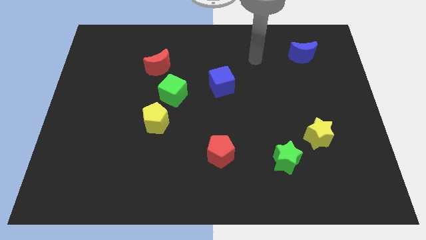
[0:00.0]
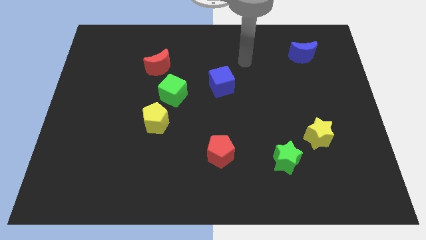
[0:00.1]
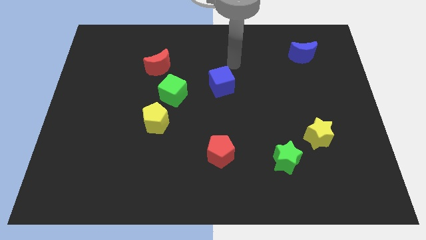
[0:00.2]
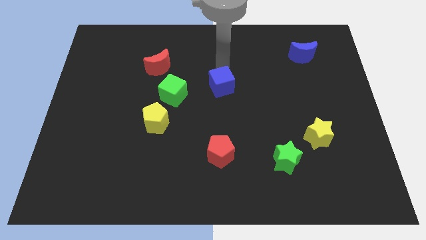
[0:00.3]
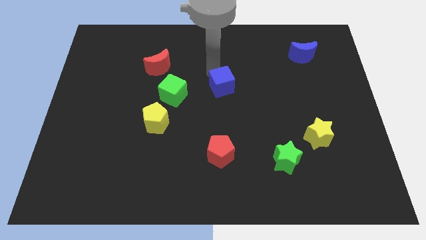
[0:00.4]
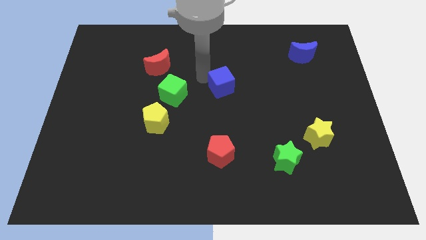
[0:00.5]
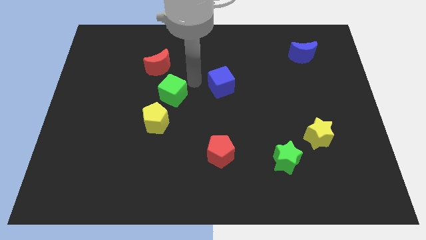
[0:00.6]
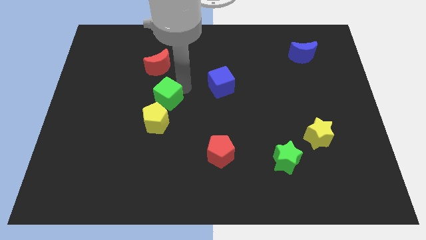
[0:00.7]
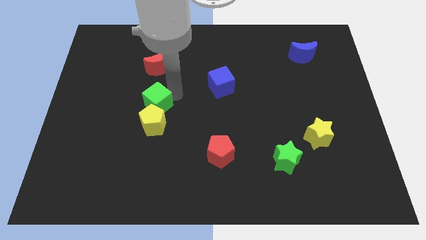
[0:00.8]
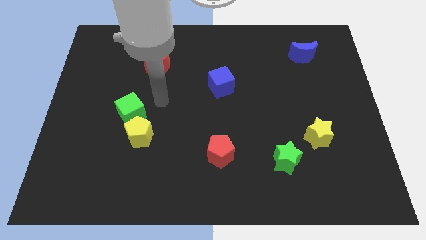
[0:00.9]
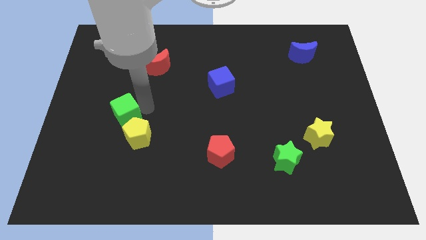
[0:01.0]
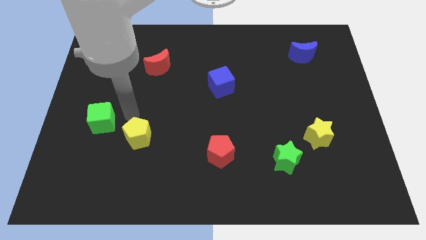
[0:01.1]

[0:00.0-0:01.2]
move the yellow pentagon away from the green cube

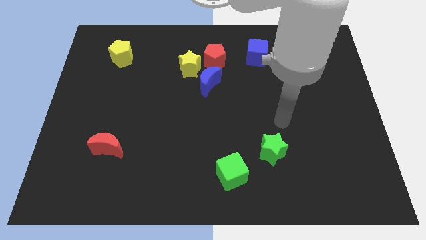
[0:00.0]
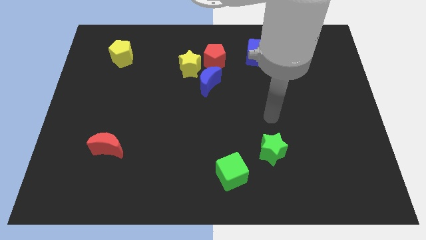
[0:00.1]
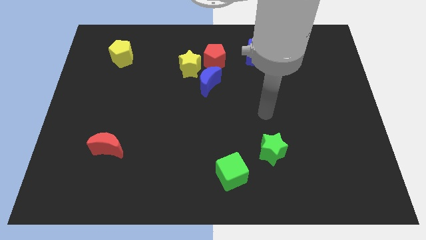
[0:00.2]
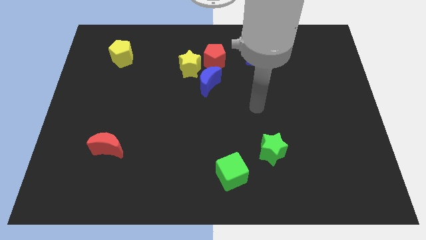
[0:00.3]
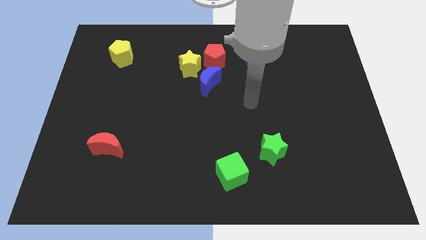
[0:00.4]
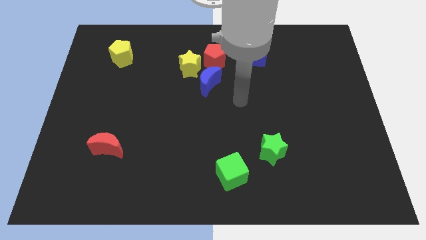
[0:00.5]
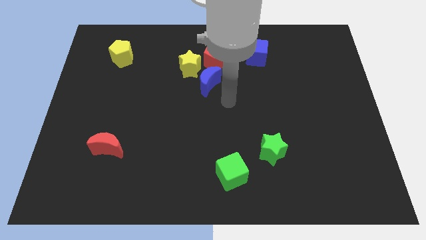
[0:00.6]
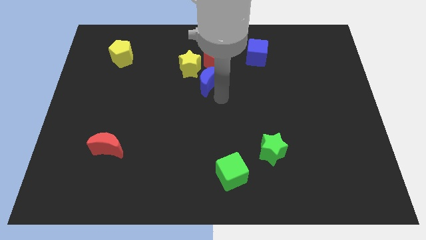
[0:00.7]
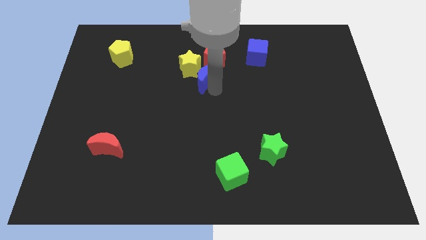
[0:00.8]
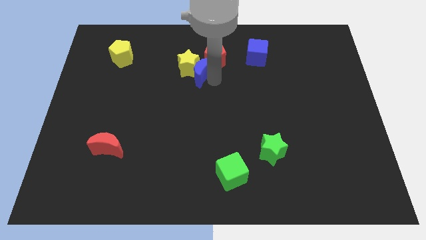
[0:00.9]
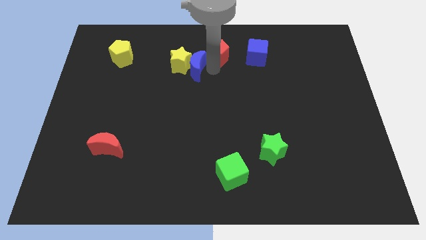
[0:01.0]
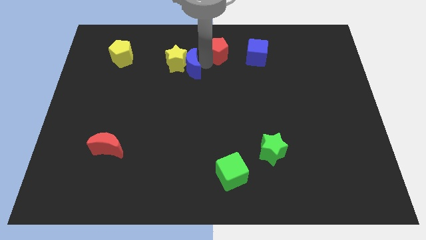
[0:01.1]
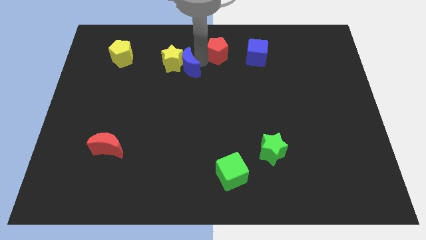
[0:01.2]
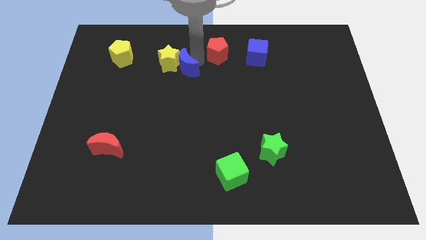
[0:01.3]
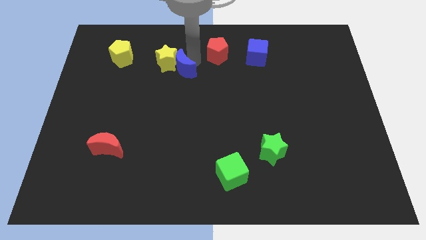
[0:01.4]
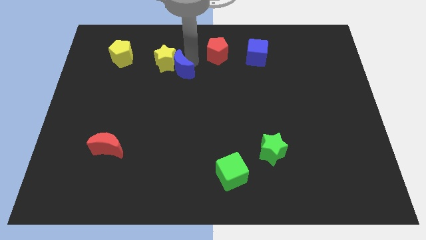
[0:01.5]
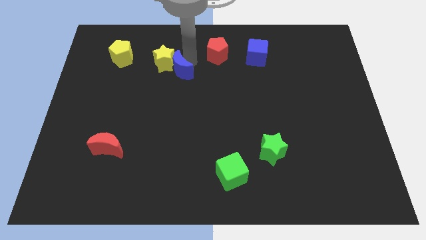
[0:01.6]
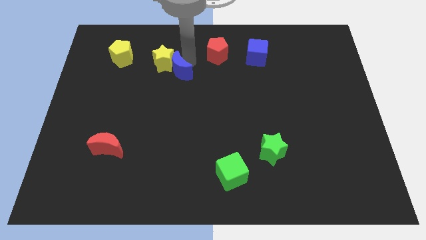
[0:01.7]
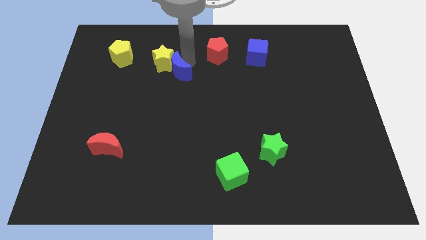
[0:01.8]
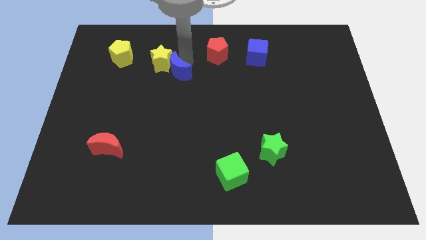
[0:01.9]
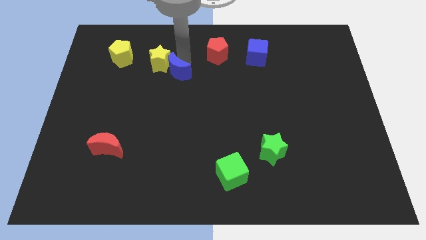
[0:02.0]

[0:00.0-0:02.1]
pull the yellow star apart from the red pentagon and blue moon

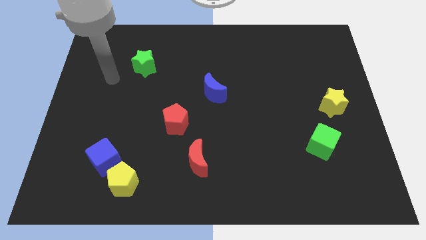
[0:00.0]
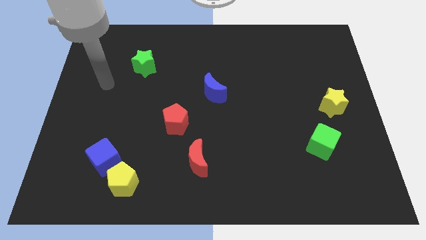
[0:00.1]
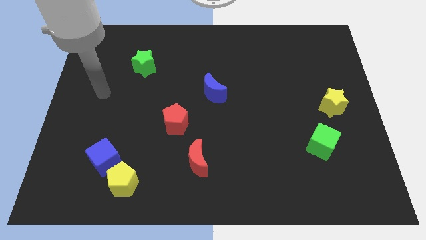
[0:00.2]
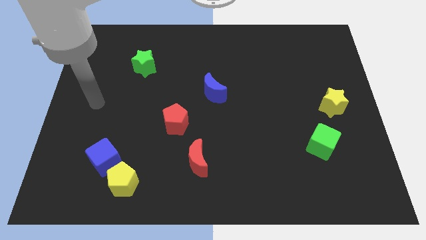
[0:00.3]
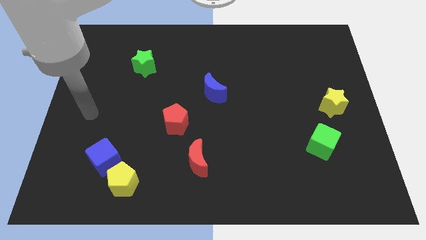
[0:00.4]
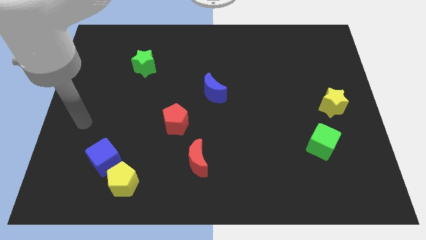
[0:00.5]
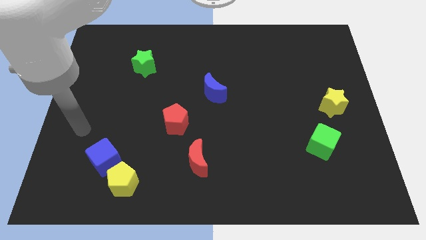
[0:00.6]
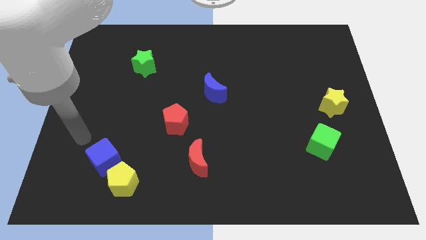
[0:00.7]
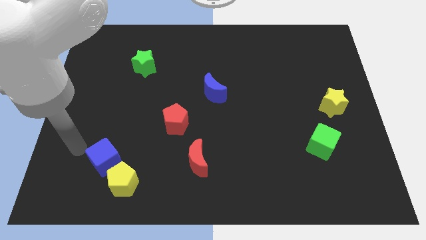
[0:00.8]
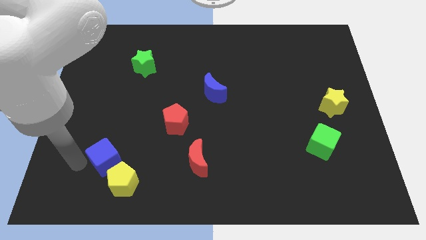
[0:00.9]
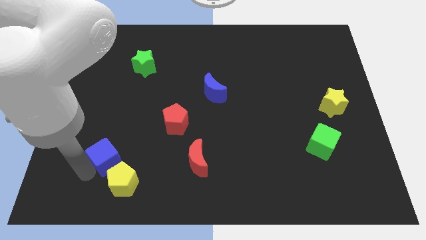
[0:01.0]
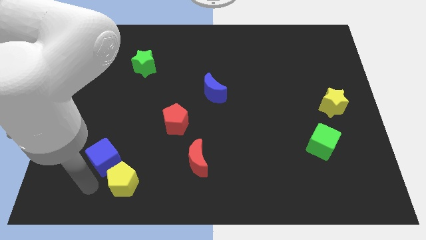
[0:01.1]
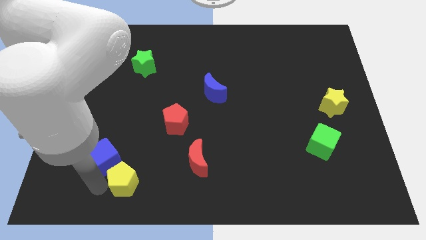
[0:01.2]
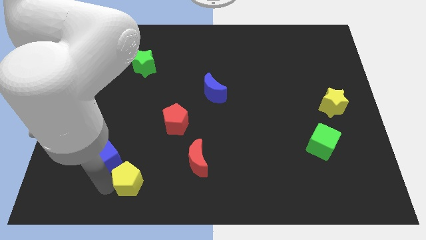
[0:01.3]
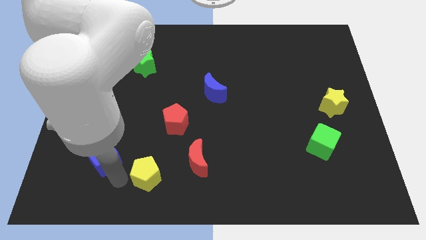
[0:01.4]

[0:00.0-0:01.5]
pull the blue cube apart from the yellow pentagon

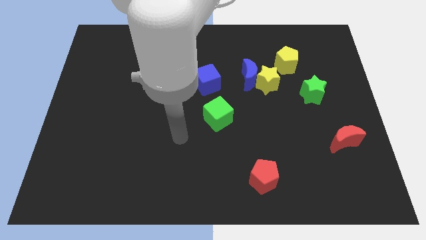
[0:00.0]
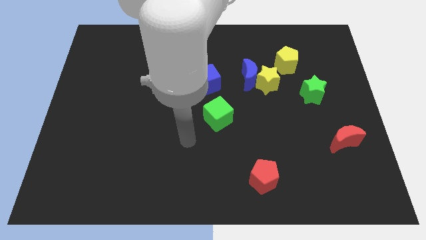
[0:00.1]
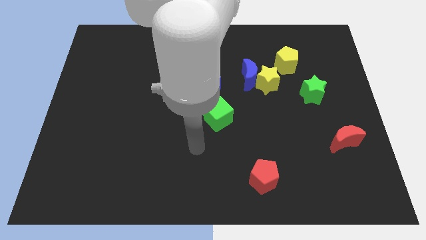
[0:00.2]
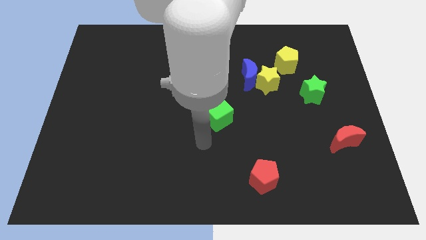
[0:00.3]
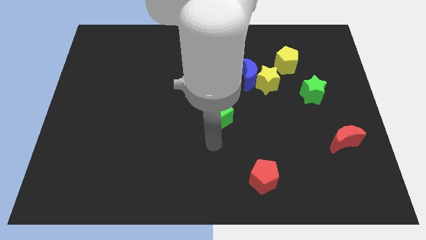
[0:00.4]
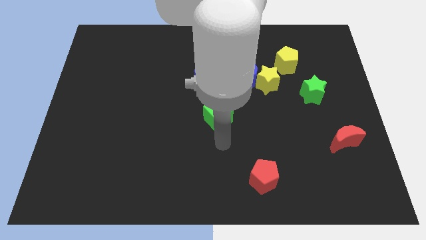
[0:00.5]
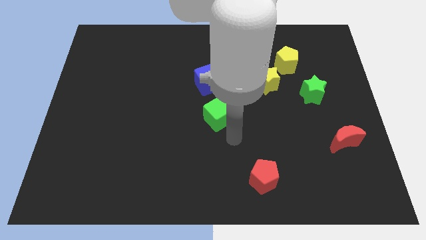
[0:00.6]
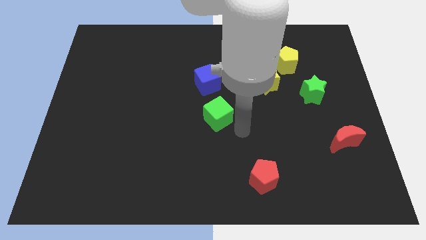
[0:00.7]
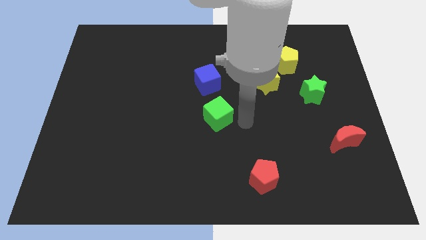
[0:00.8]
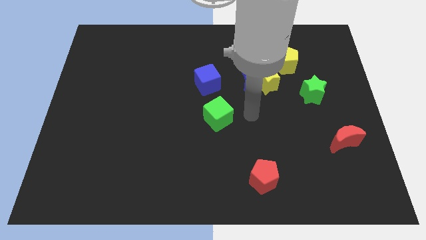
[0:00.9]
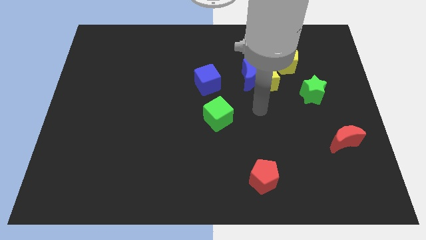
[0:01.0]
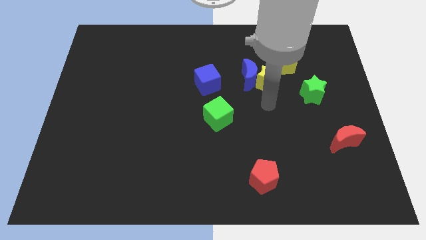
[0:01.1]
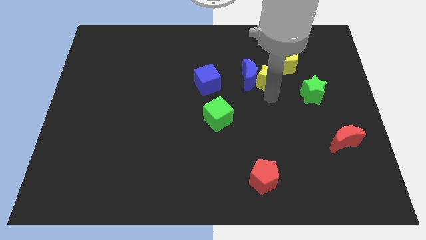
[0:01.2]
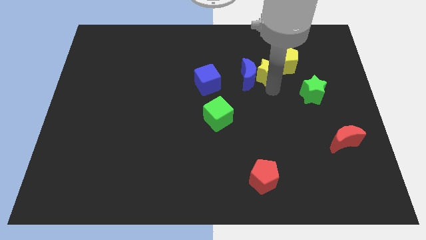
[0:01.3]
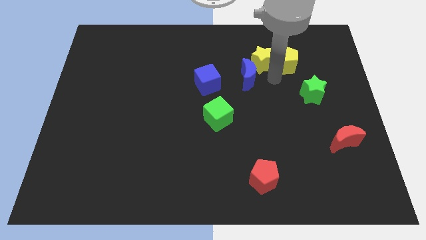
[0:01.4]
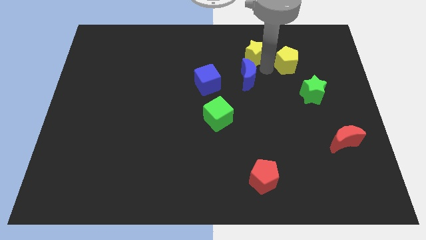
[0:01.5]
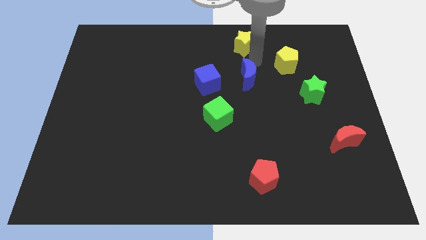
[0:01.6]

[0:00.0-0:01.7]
separate the blue moon from the yellow star

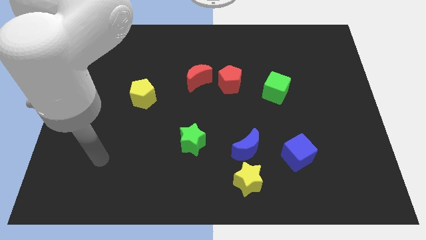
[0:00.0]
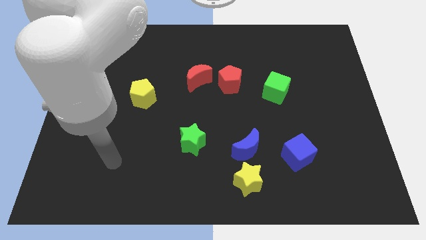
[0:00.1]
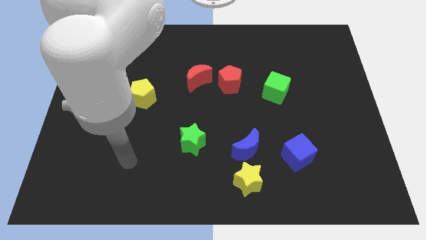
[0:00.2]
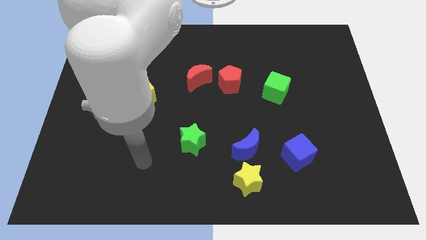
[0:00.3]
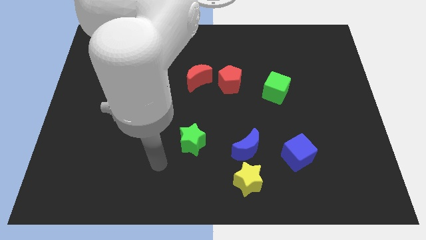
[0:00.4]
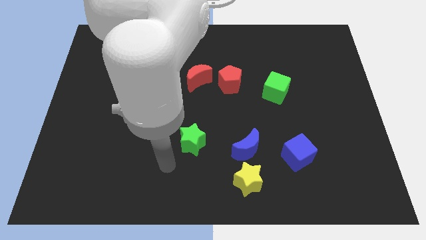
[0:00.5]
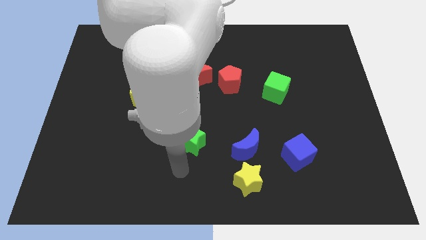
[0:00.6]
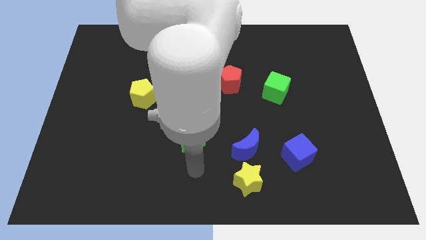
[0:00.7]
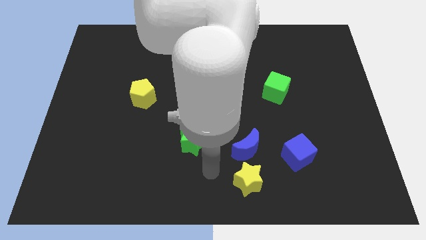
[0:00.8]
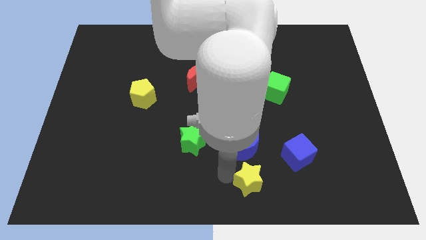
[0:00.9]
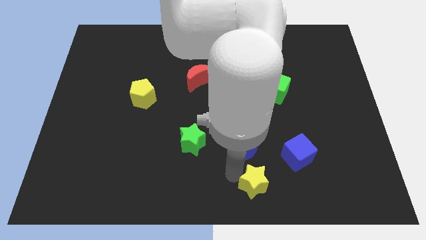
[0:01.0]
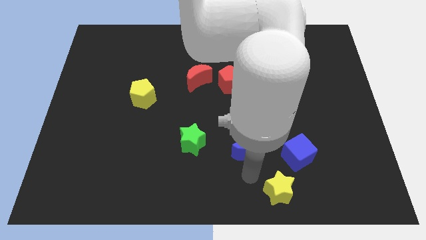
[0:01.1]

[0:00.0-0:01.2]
pull the blue moon apart from the yellow star

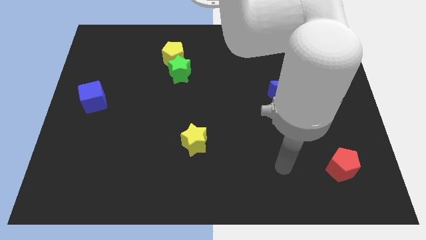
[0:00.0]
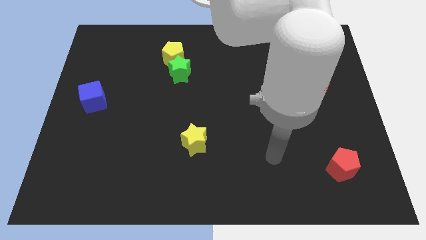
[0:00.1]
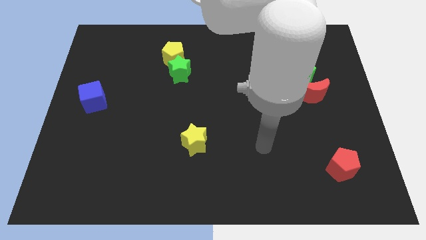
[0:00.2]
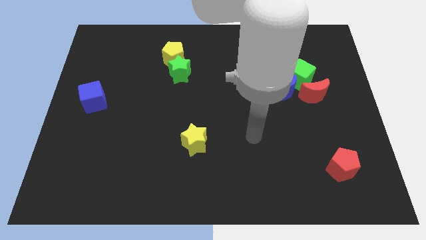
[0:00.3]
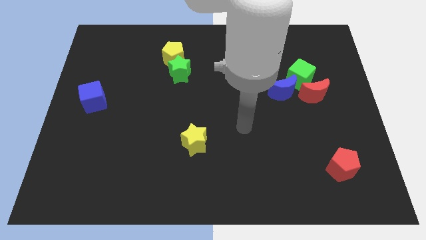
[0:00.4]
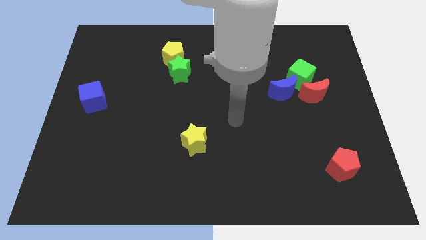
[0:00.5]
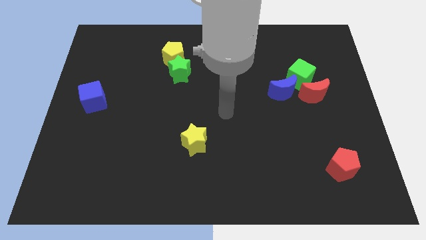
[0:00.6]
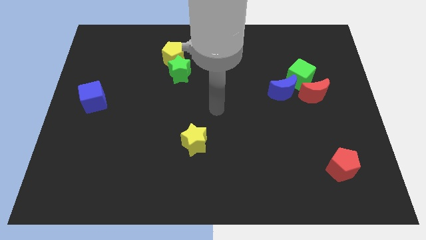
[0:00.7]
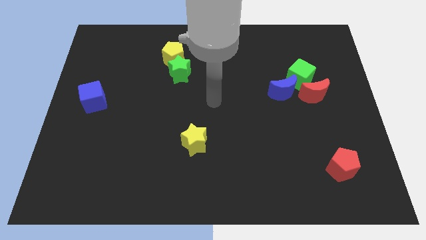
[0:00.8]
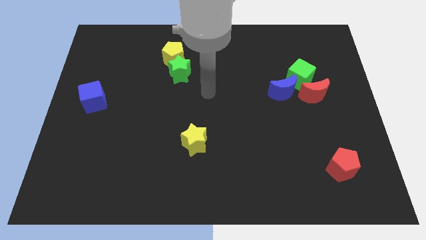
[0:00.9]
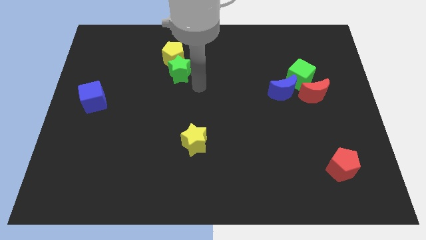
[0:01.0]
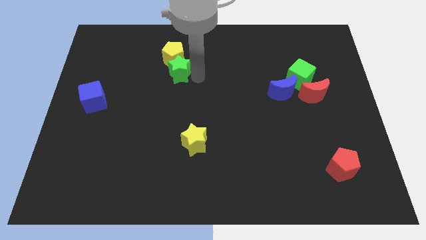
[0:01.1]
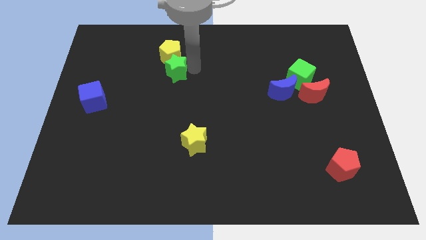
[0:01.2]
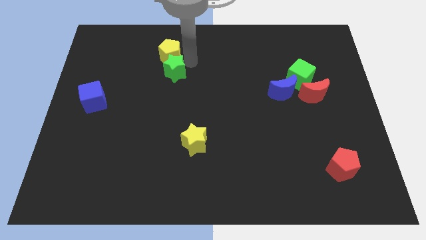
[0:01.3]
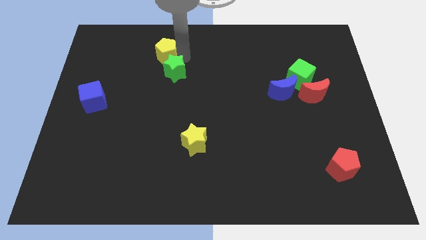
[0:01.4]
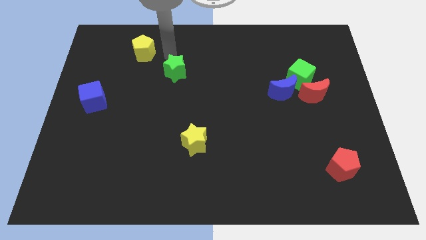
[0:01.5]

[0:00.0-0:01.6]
separate the green star from the yellow pentagon

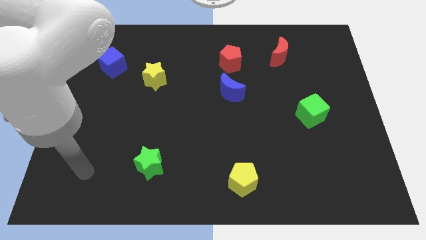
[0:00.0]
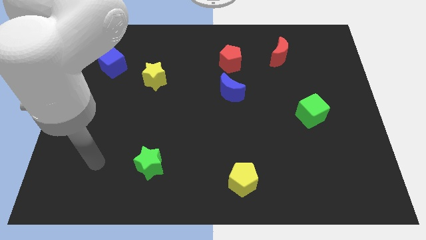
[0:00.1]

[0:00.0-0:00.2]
move the red pentagon away from the blue moon

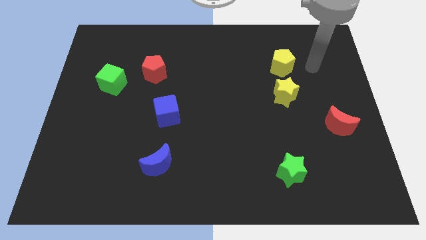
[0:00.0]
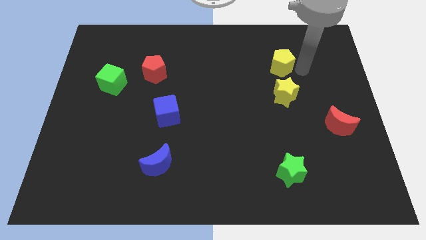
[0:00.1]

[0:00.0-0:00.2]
move the yellow star away from the yellow pentagon
